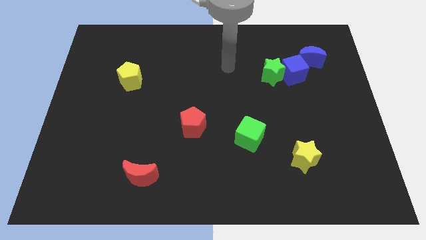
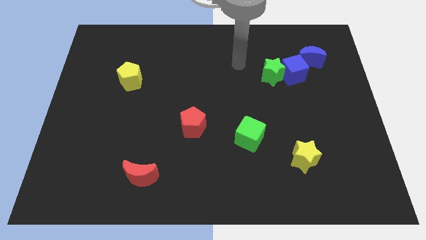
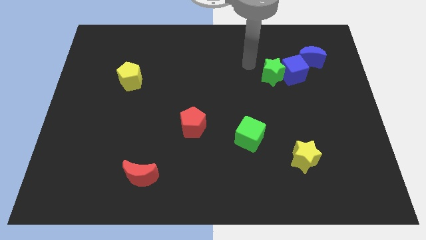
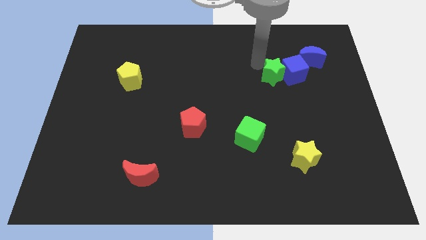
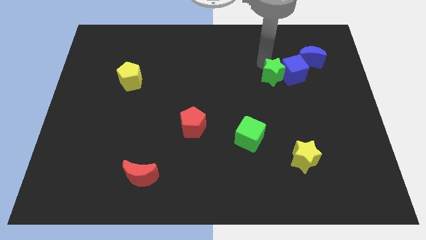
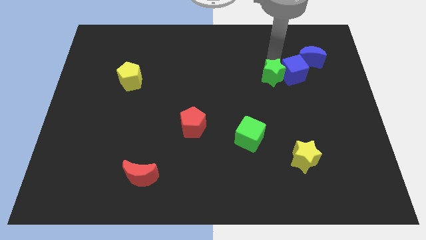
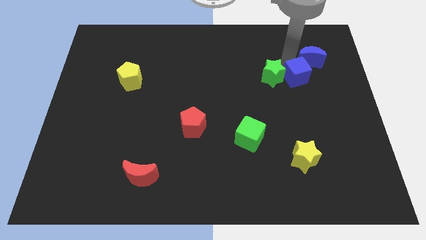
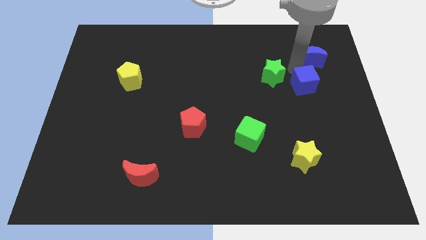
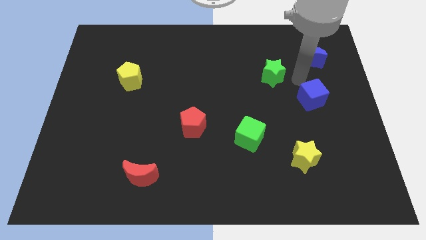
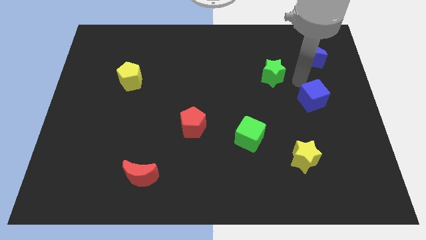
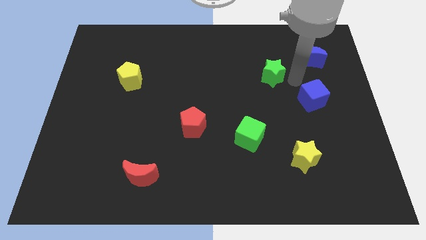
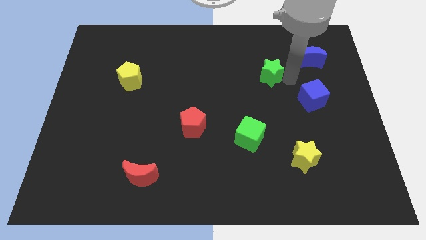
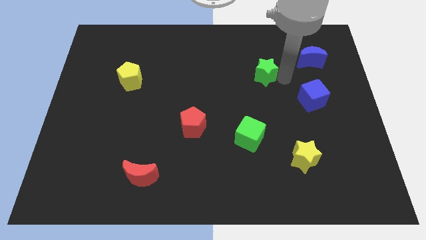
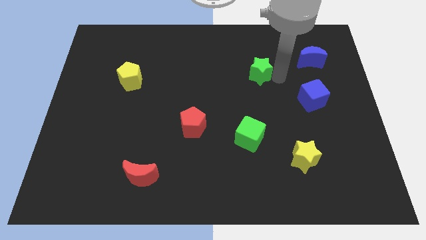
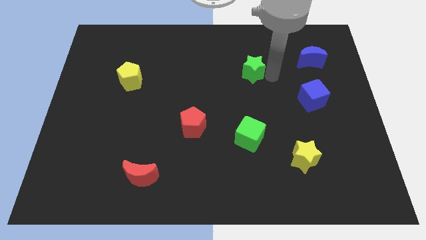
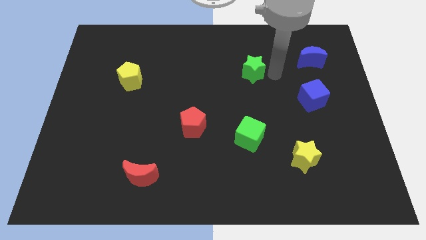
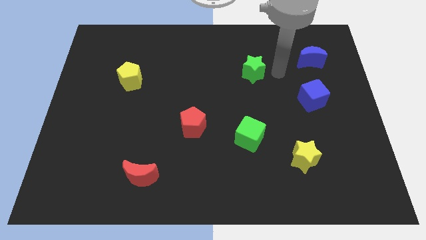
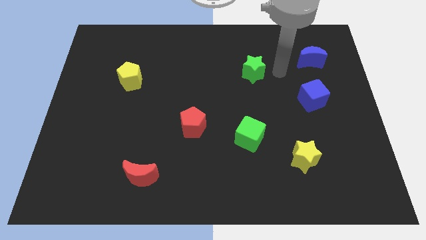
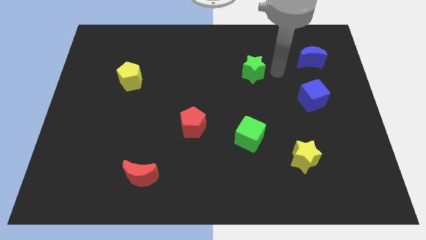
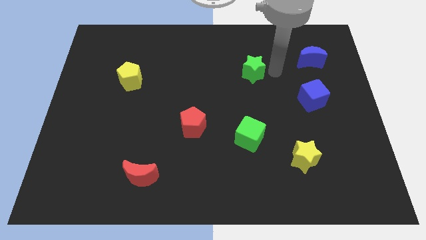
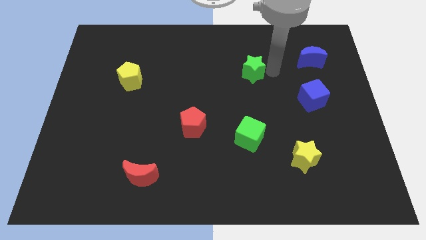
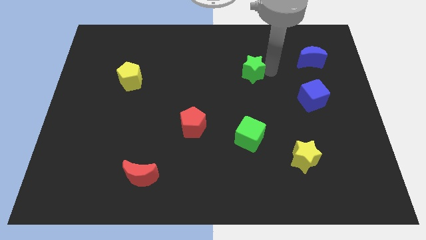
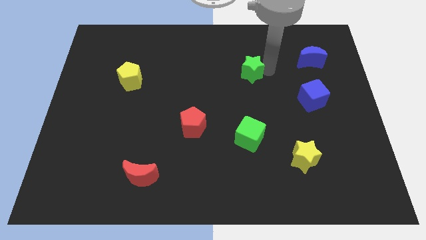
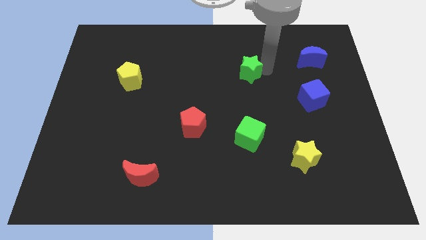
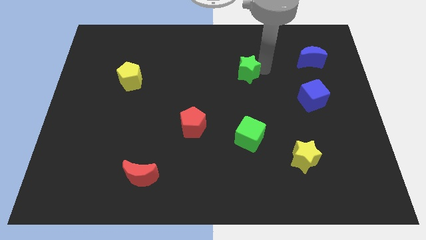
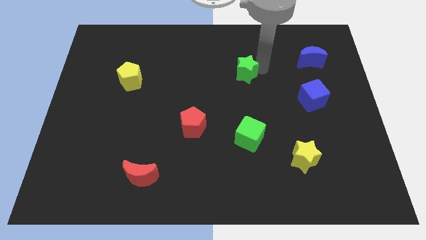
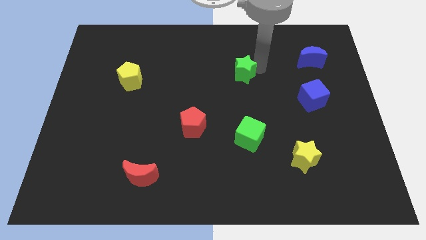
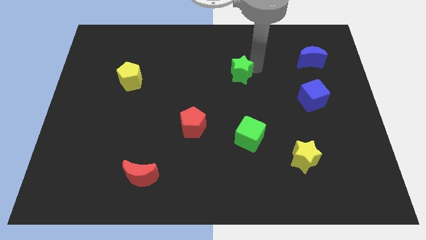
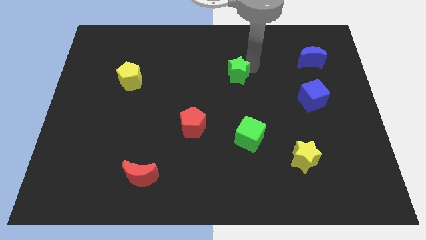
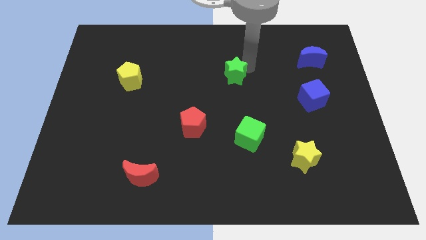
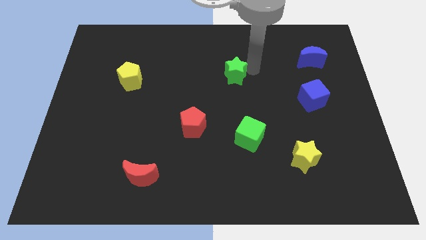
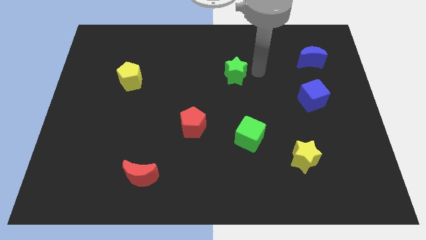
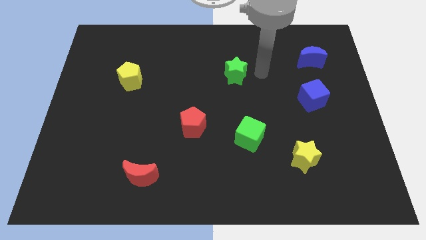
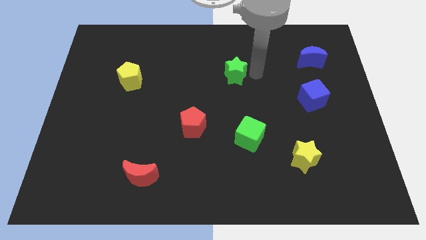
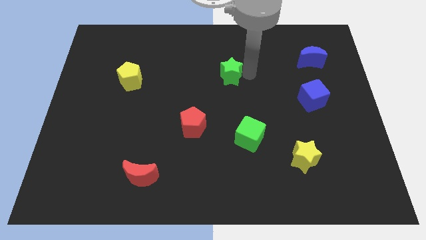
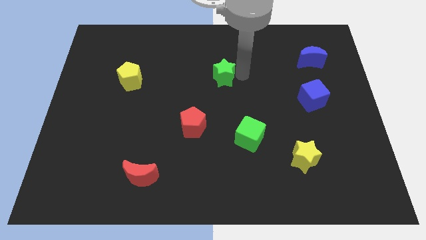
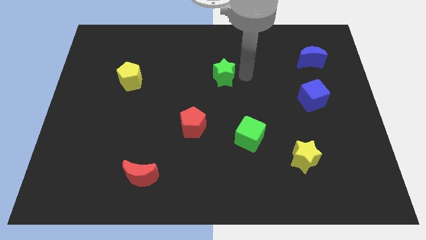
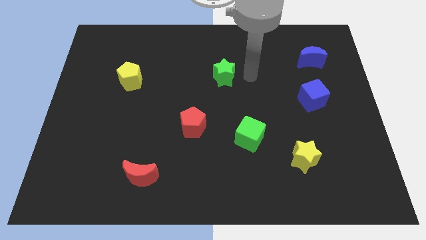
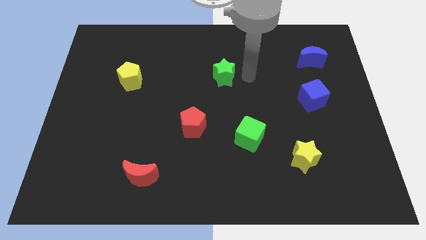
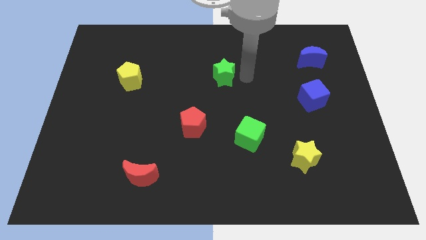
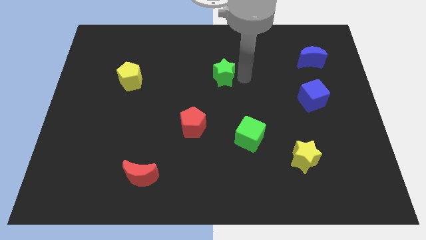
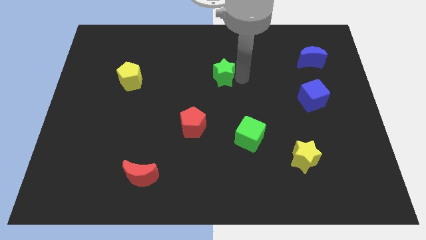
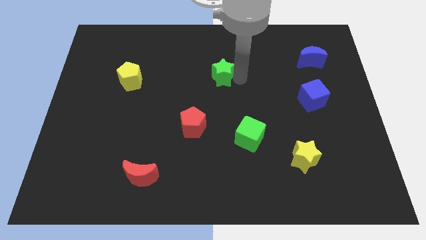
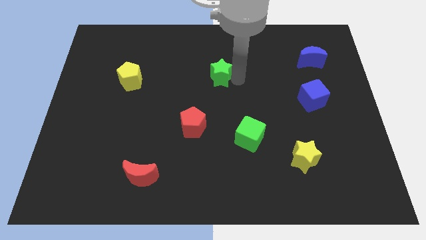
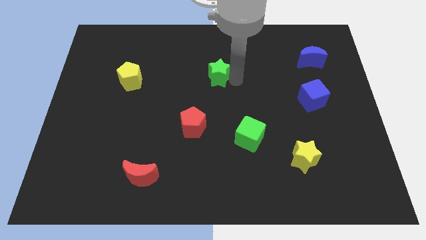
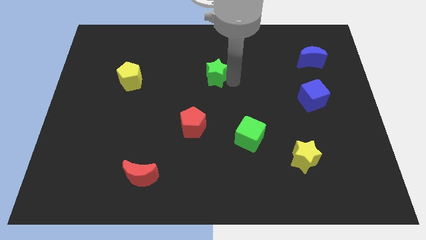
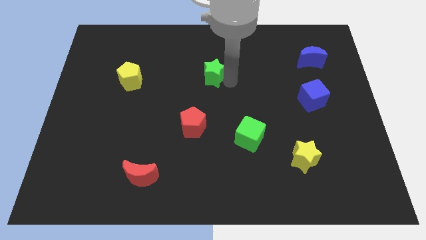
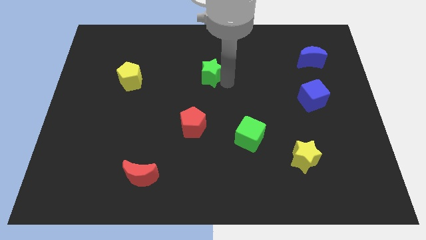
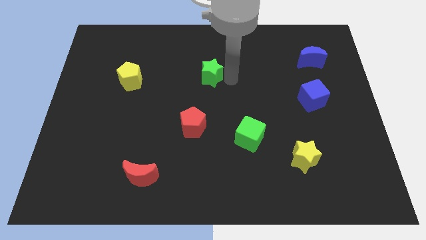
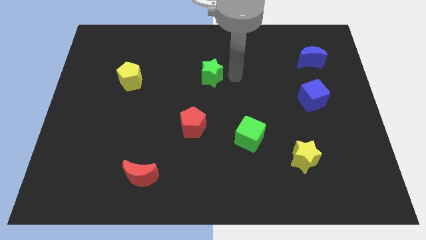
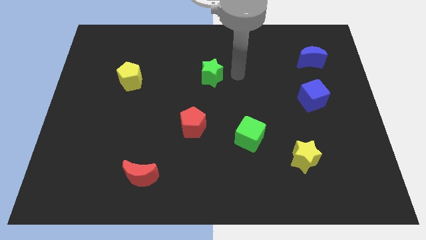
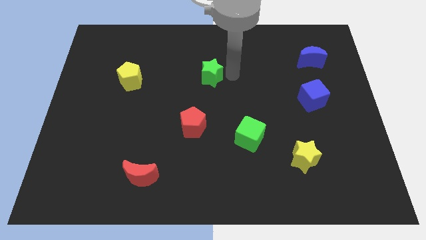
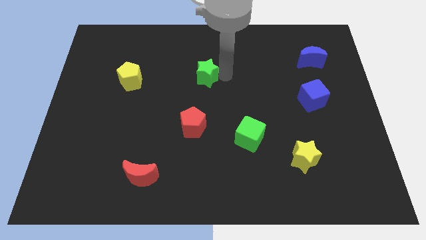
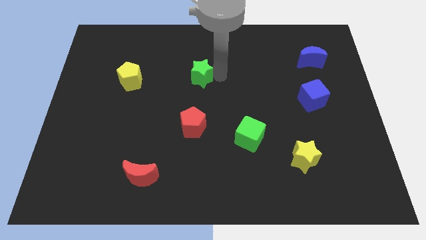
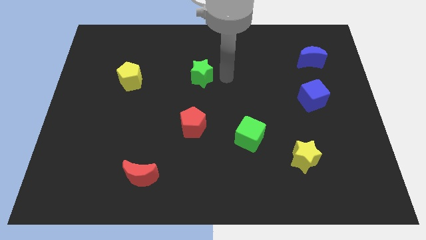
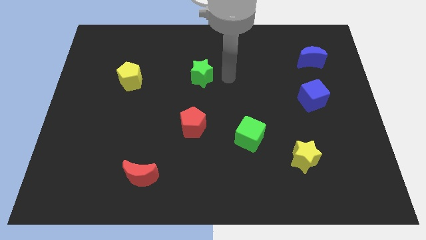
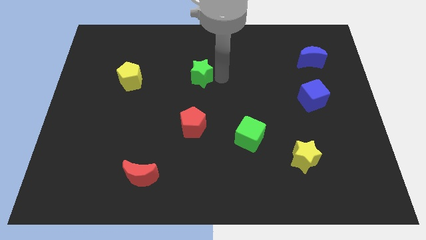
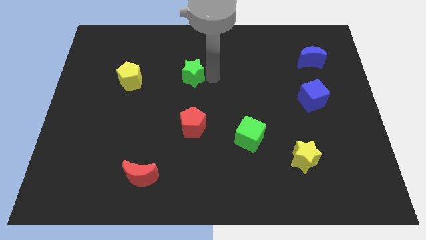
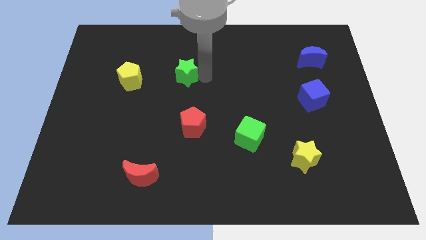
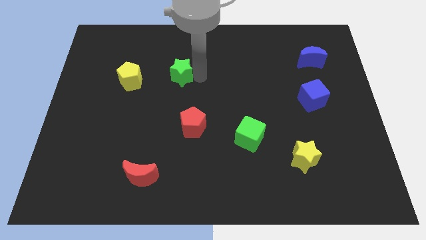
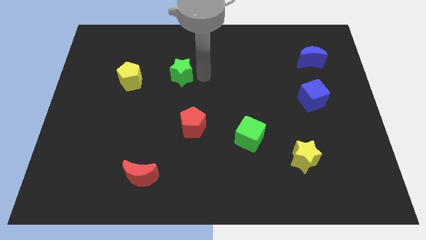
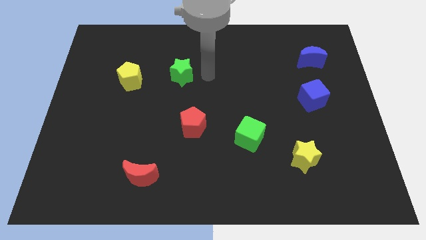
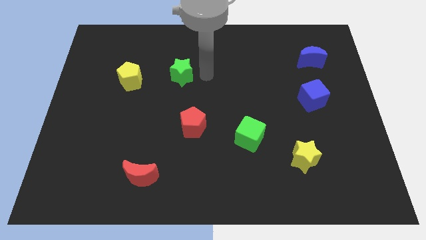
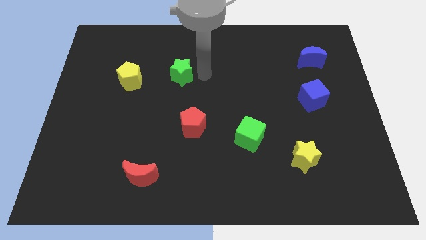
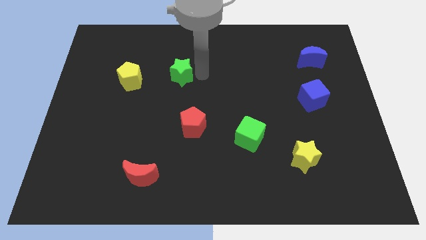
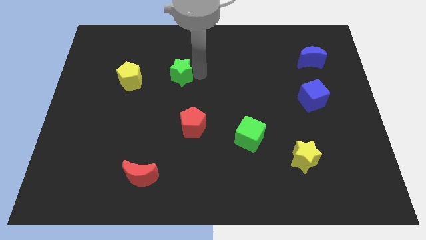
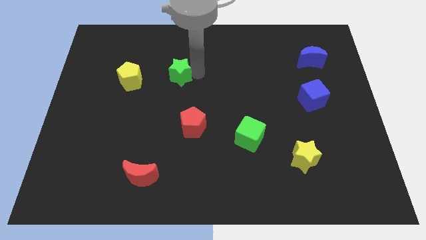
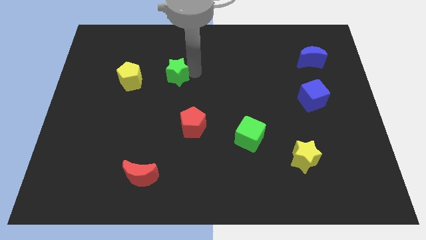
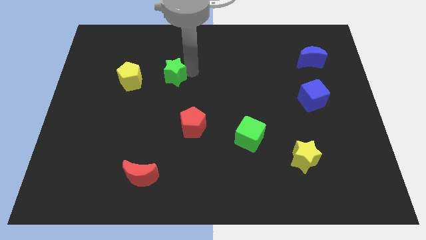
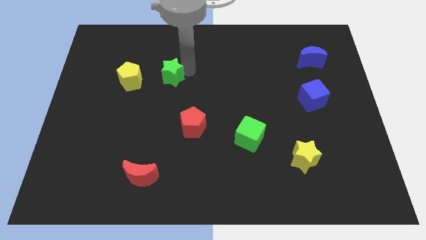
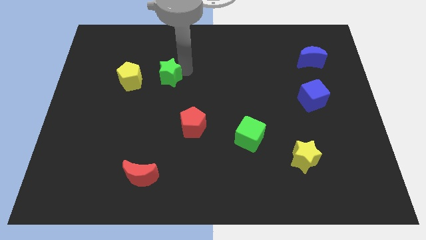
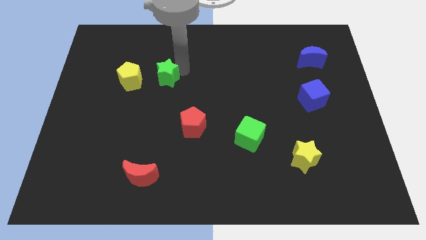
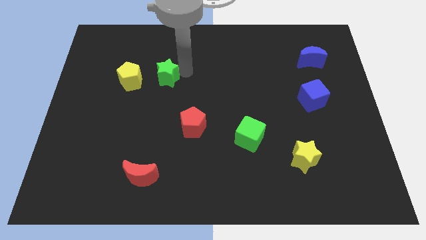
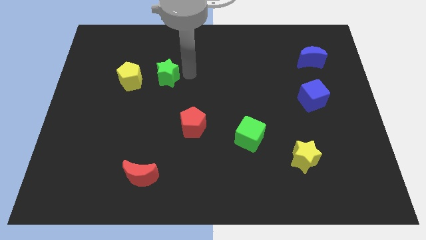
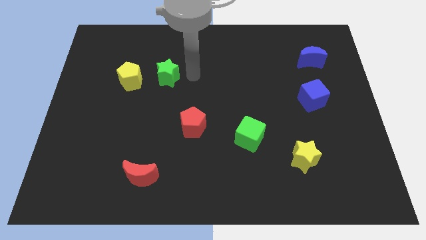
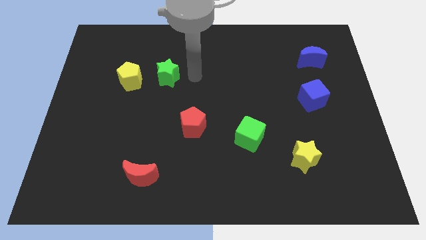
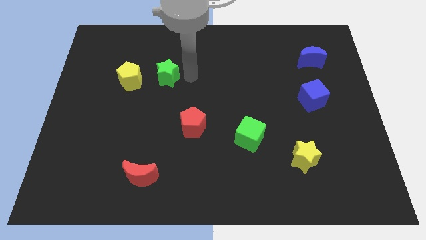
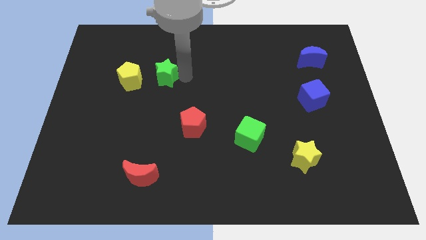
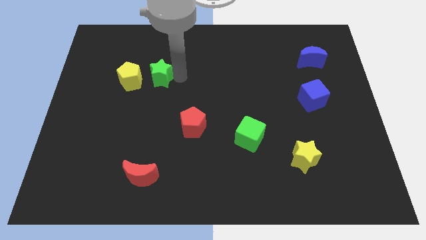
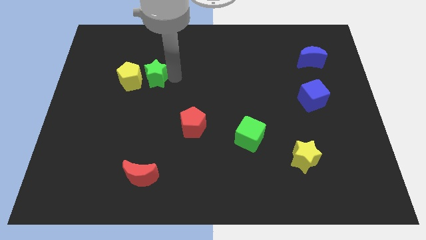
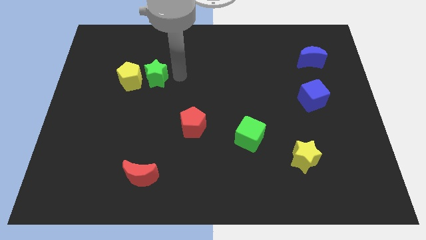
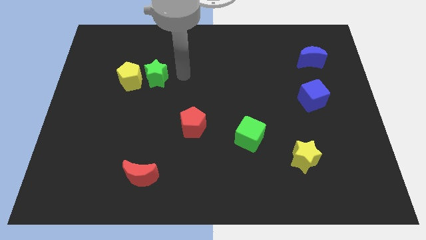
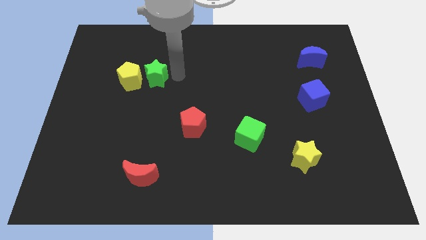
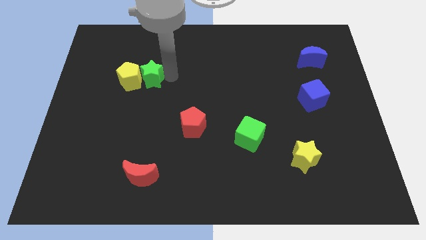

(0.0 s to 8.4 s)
move the green star next to the yellow pentagon
